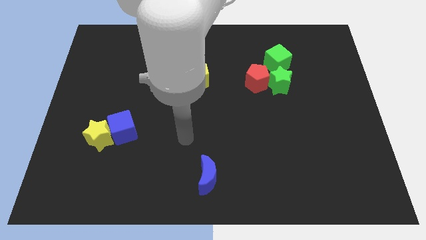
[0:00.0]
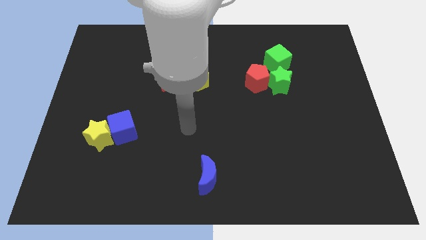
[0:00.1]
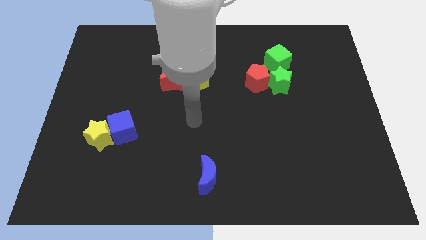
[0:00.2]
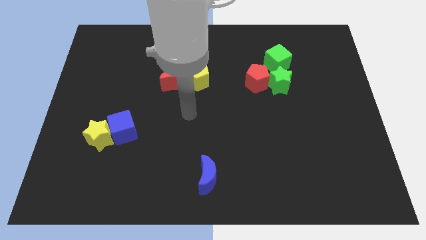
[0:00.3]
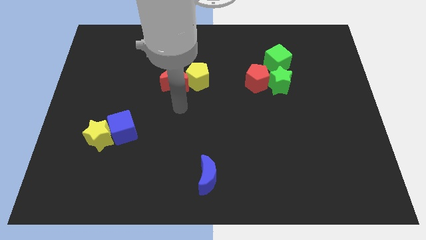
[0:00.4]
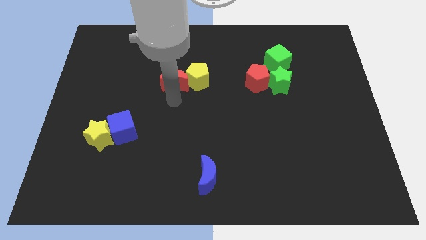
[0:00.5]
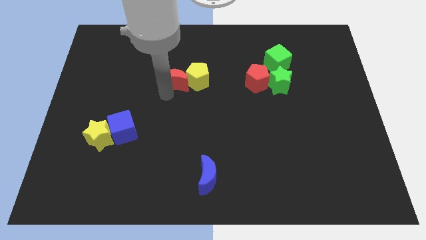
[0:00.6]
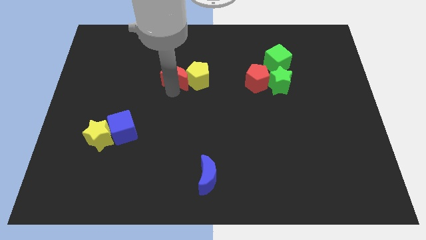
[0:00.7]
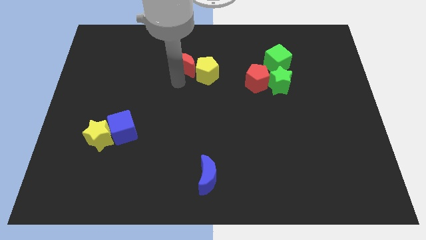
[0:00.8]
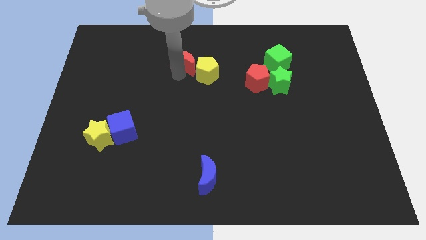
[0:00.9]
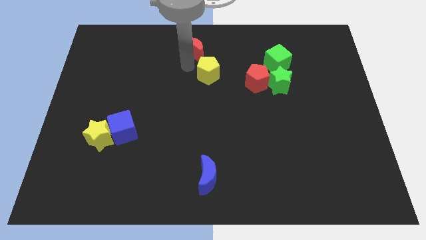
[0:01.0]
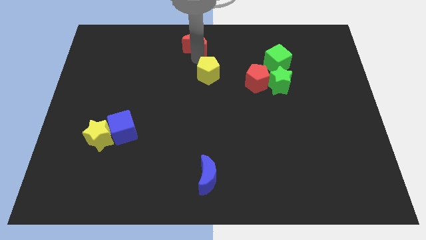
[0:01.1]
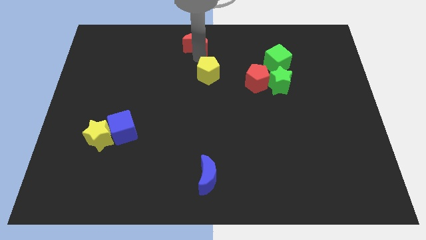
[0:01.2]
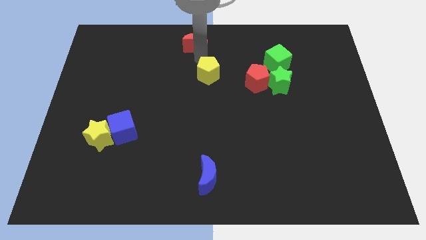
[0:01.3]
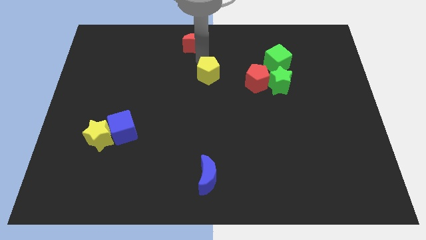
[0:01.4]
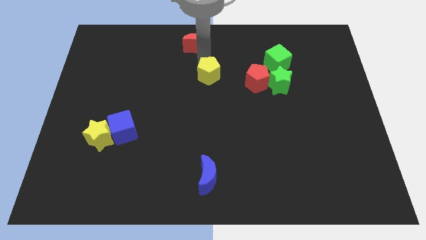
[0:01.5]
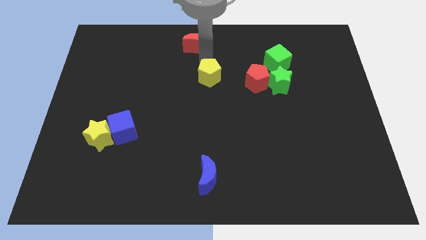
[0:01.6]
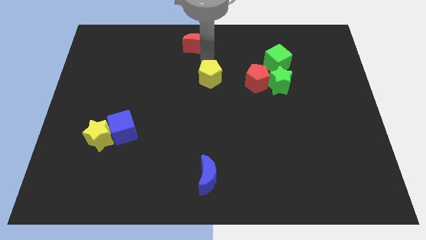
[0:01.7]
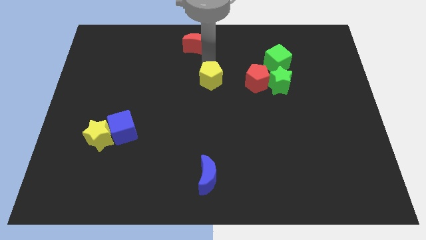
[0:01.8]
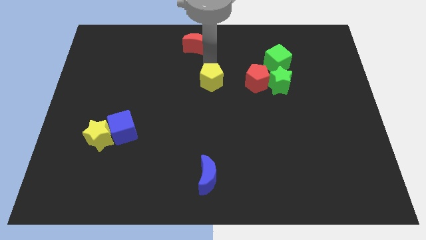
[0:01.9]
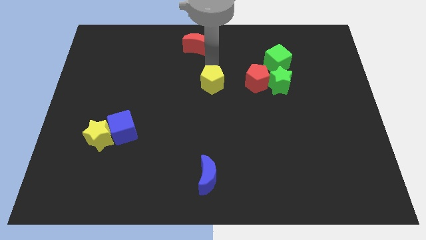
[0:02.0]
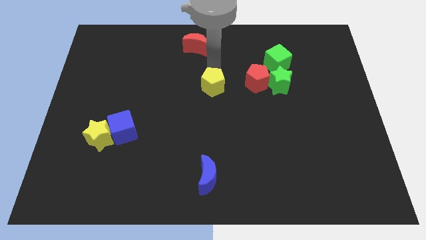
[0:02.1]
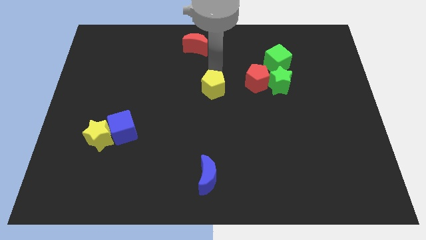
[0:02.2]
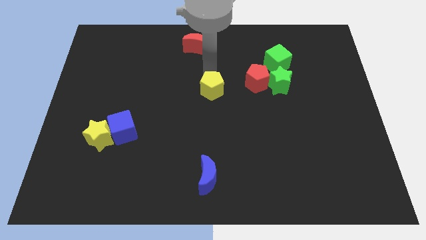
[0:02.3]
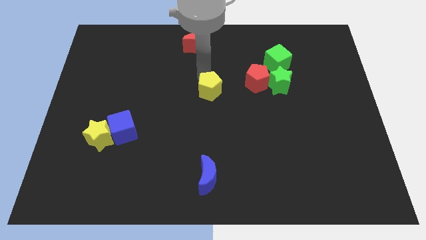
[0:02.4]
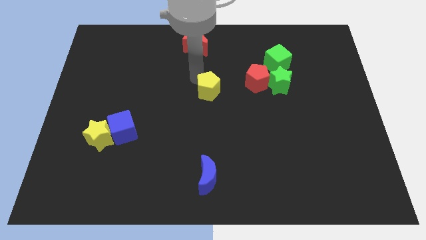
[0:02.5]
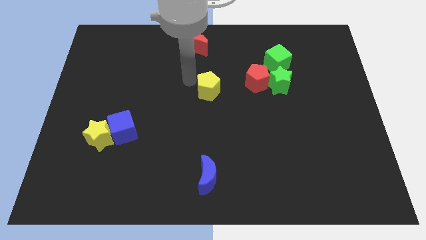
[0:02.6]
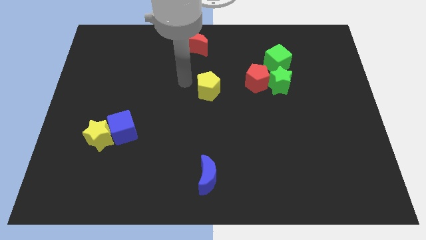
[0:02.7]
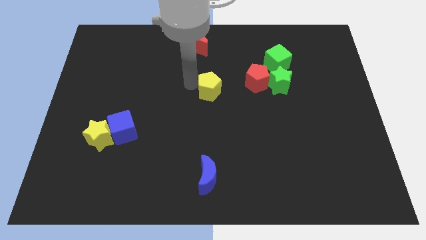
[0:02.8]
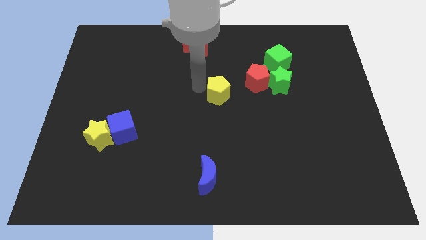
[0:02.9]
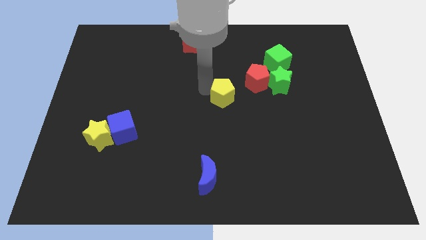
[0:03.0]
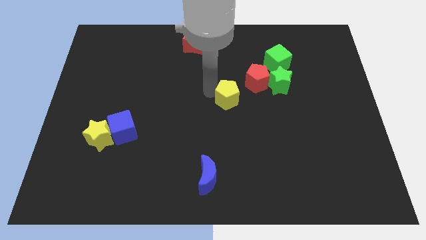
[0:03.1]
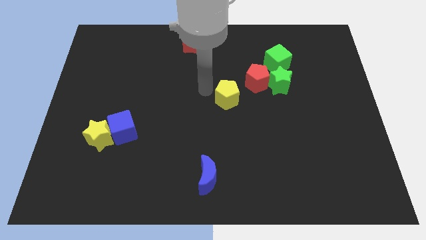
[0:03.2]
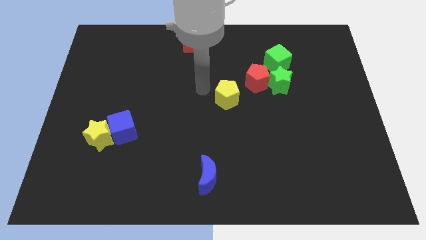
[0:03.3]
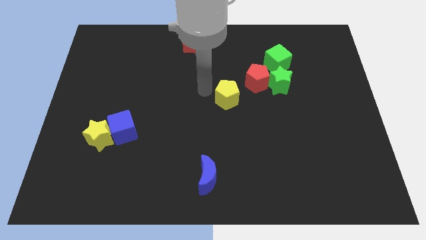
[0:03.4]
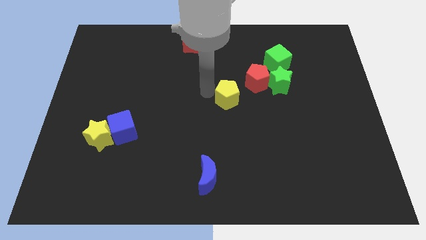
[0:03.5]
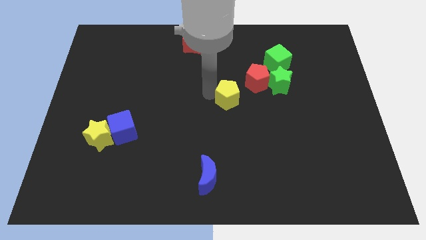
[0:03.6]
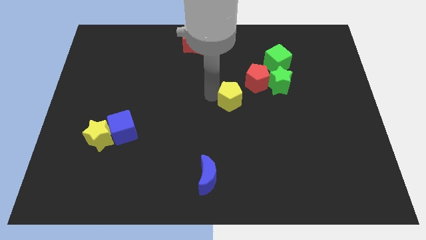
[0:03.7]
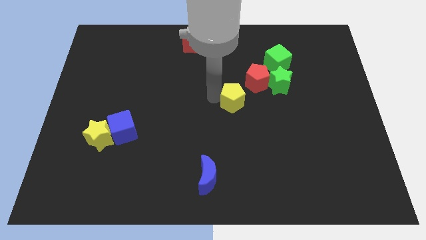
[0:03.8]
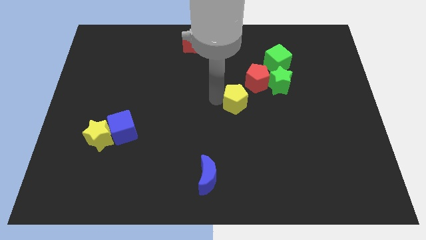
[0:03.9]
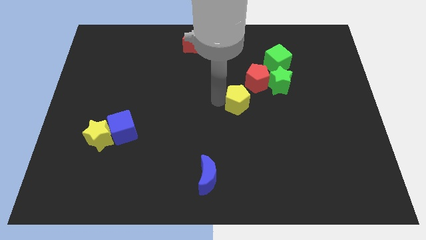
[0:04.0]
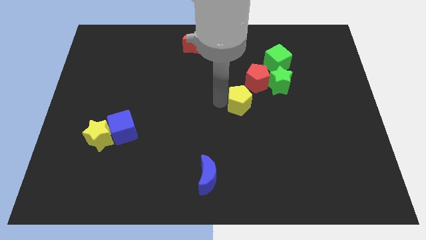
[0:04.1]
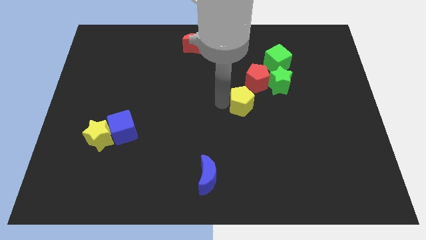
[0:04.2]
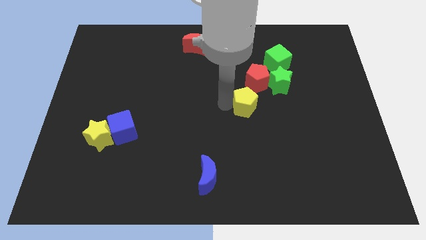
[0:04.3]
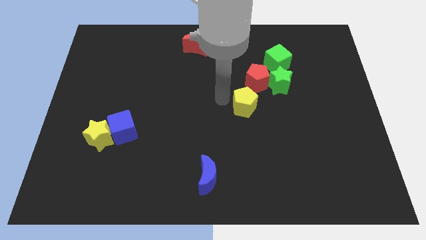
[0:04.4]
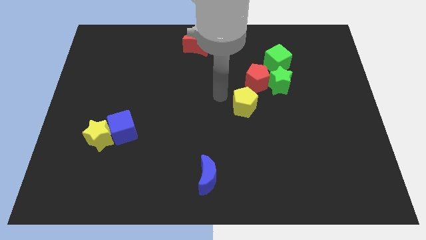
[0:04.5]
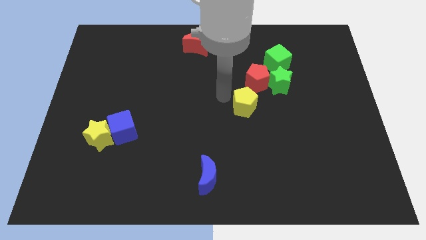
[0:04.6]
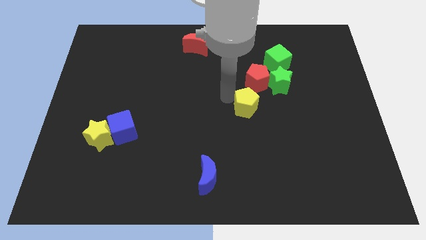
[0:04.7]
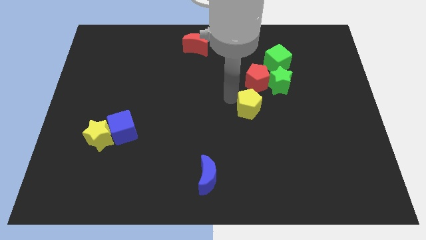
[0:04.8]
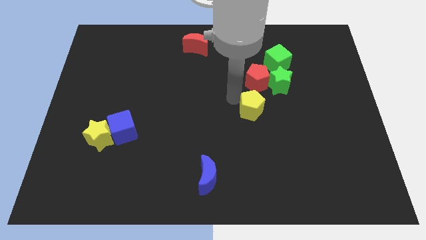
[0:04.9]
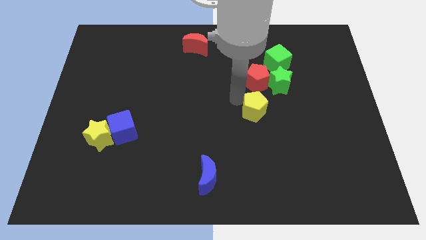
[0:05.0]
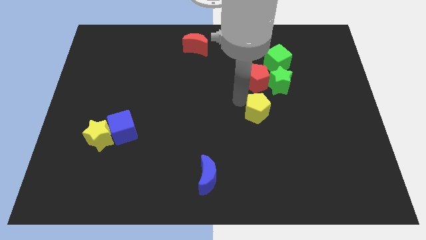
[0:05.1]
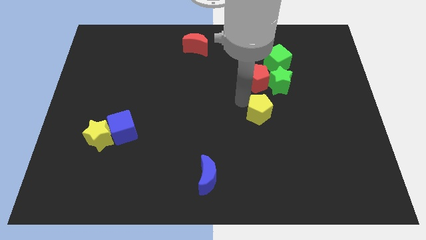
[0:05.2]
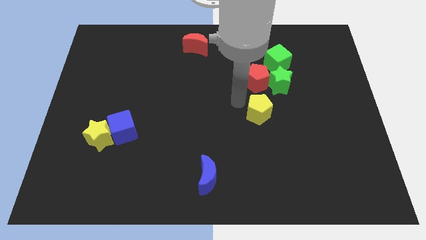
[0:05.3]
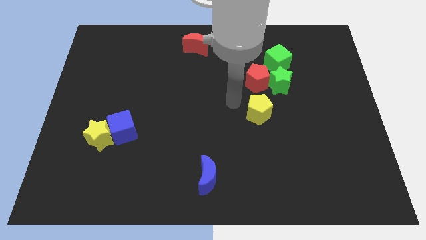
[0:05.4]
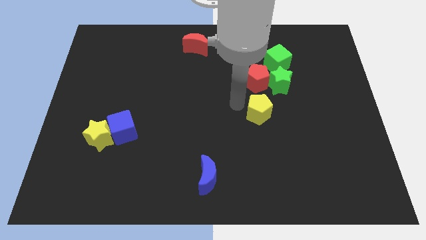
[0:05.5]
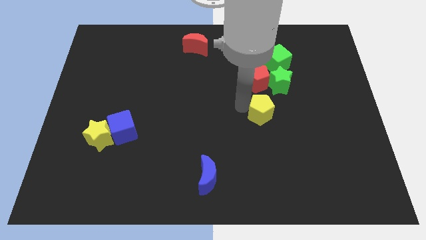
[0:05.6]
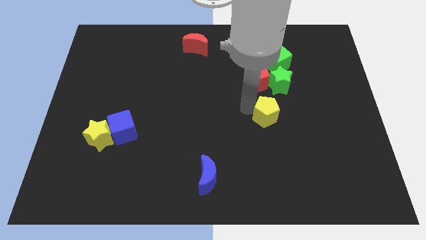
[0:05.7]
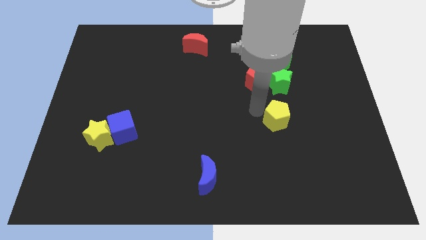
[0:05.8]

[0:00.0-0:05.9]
slide the yellow pentagon down and then right

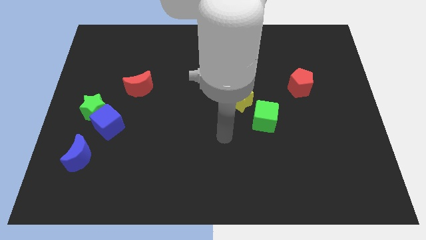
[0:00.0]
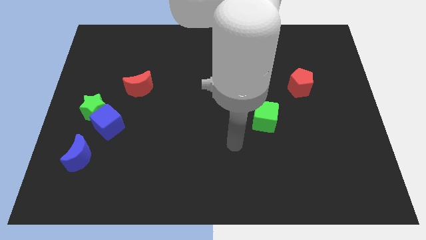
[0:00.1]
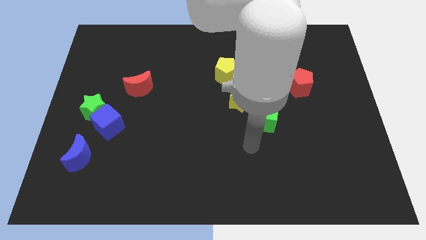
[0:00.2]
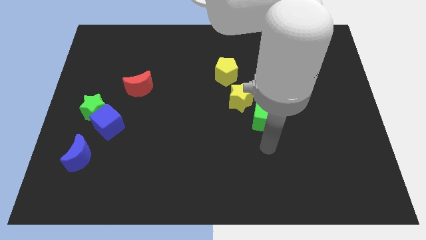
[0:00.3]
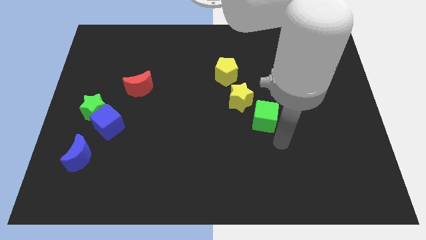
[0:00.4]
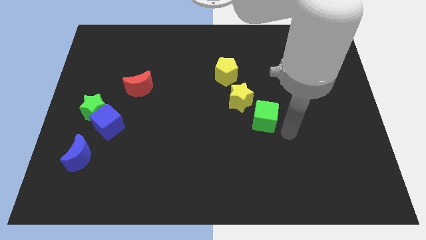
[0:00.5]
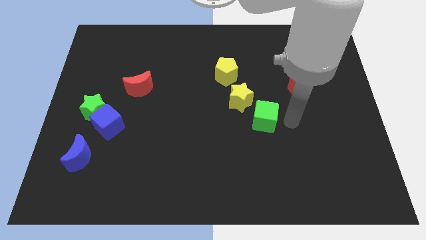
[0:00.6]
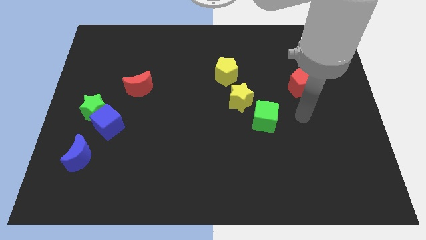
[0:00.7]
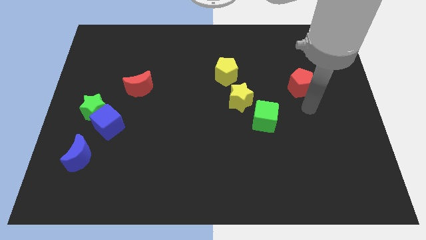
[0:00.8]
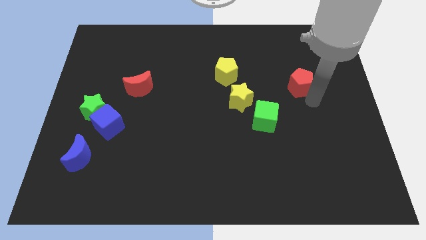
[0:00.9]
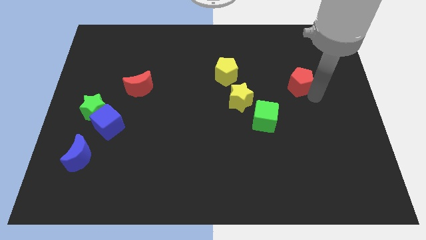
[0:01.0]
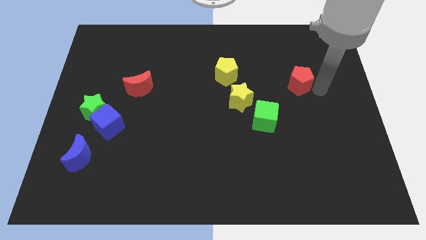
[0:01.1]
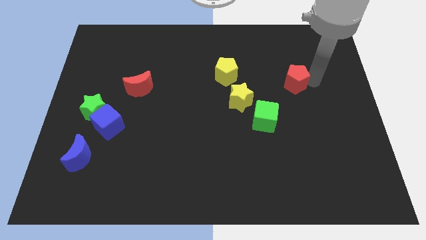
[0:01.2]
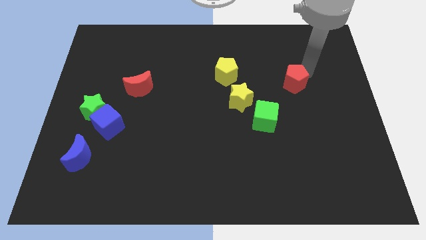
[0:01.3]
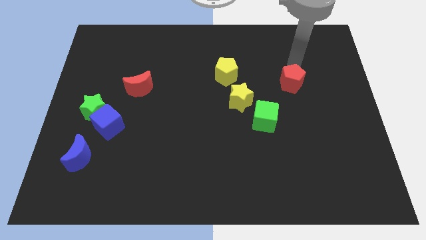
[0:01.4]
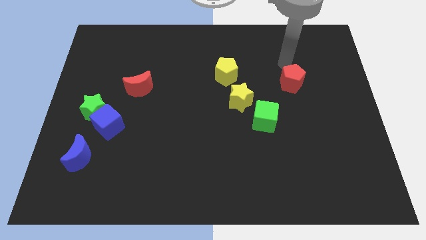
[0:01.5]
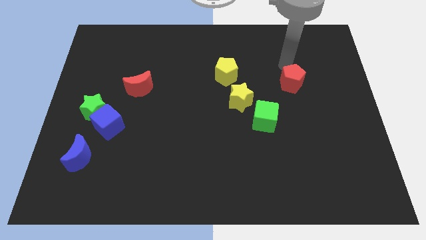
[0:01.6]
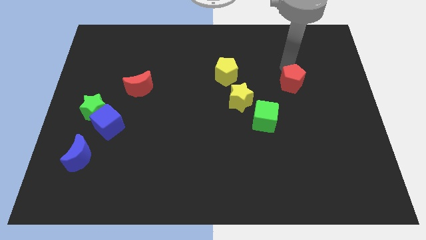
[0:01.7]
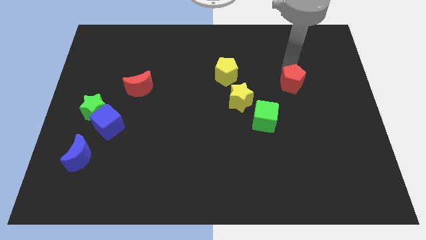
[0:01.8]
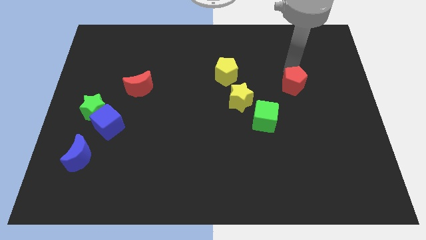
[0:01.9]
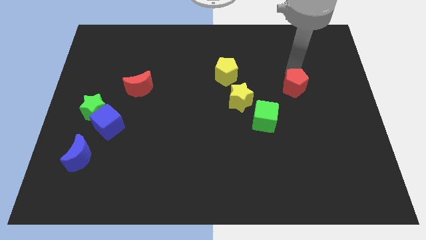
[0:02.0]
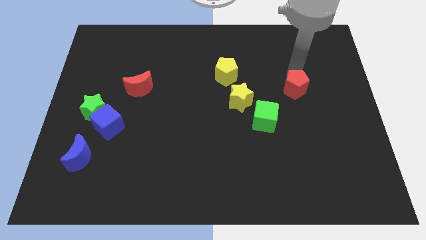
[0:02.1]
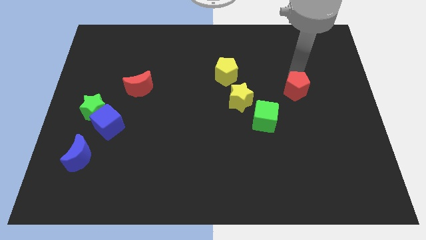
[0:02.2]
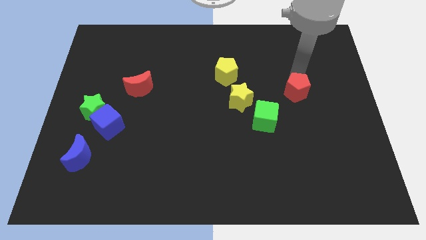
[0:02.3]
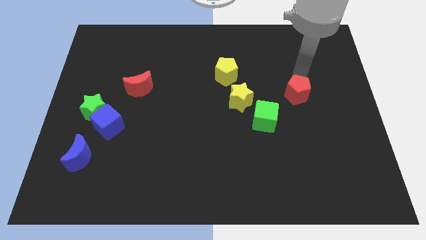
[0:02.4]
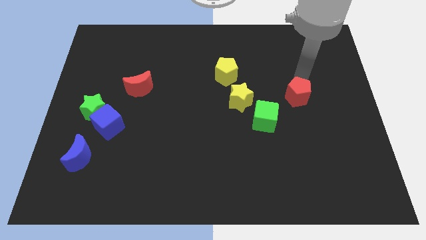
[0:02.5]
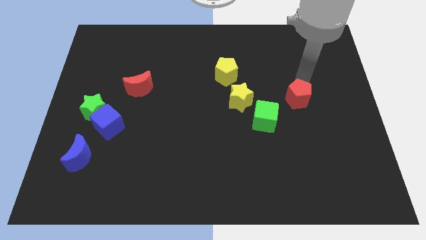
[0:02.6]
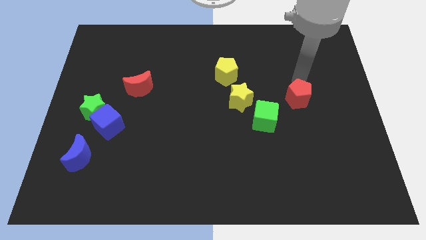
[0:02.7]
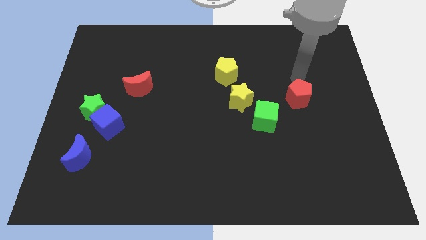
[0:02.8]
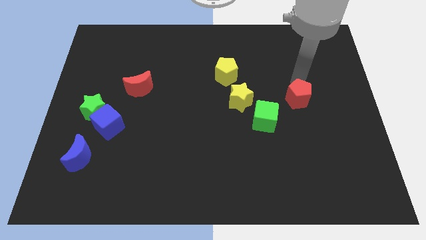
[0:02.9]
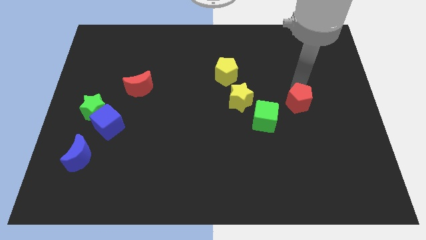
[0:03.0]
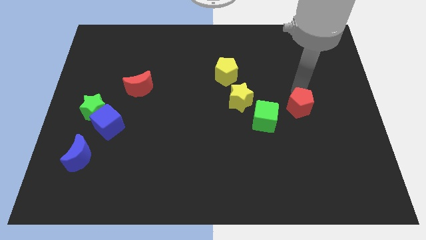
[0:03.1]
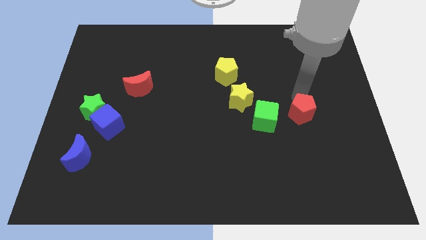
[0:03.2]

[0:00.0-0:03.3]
move the red pentagon a bit down
